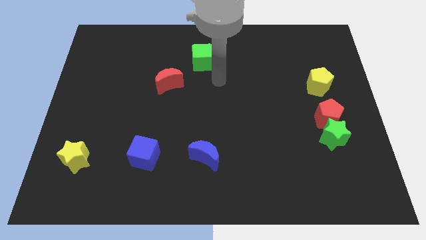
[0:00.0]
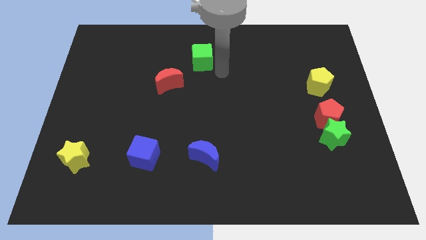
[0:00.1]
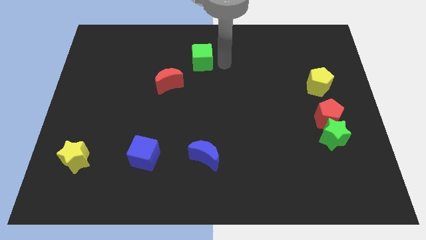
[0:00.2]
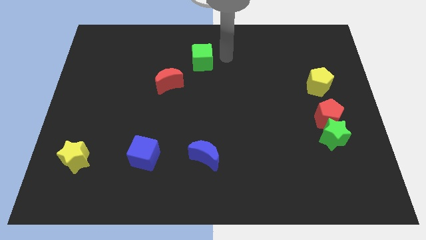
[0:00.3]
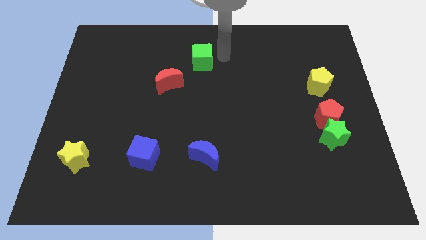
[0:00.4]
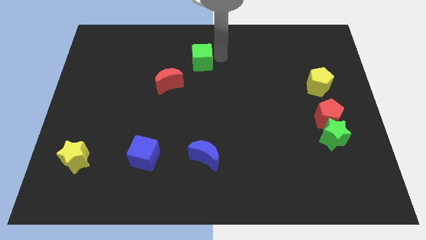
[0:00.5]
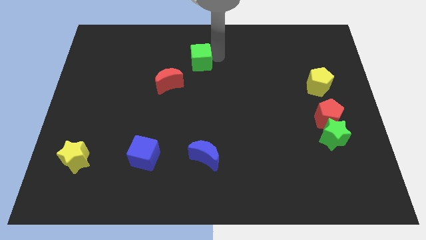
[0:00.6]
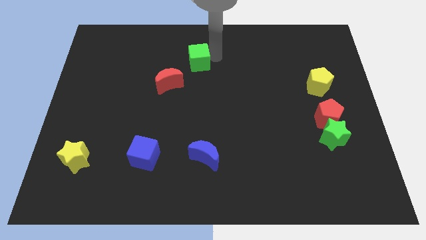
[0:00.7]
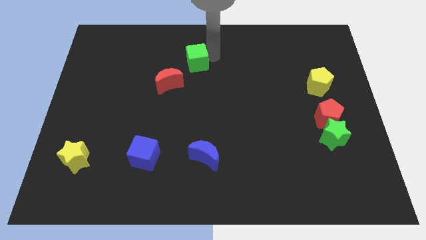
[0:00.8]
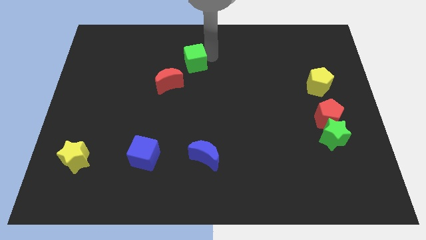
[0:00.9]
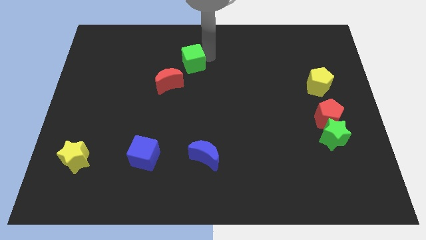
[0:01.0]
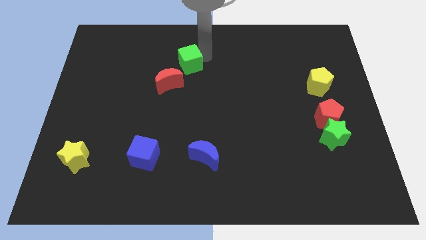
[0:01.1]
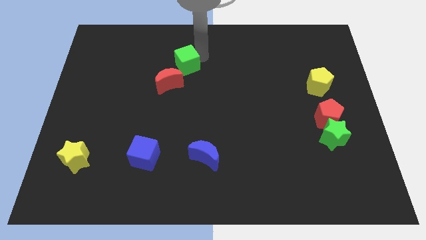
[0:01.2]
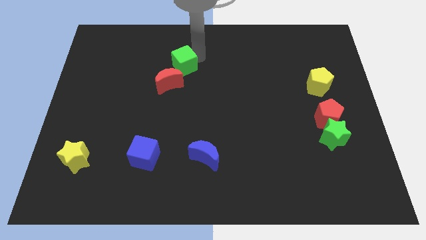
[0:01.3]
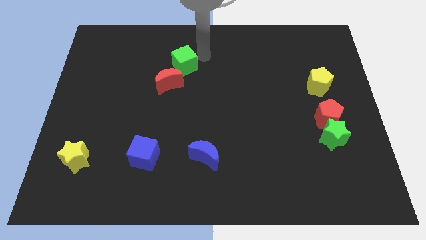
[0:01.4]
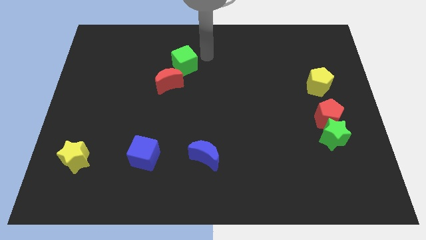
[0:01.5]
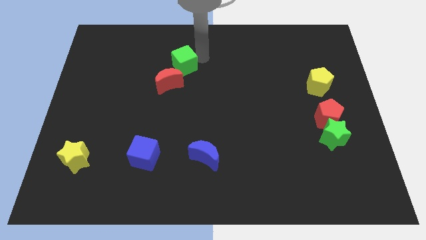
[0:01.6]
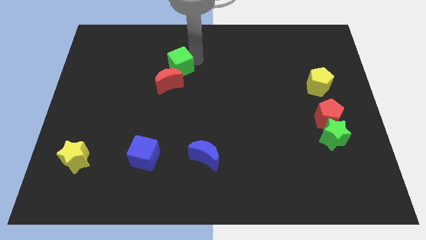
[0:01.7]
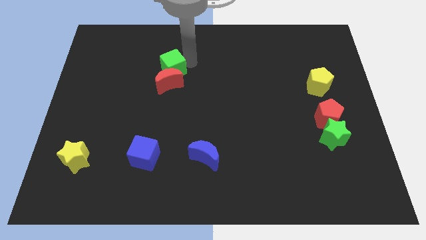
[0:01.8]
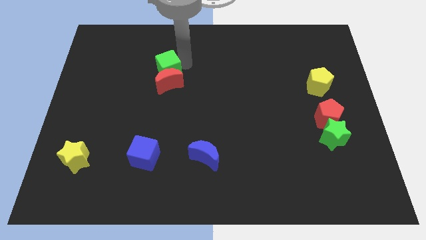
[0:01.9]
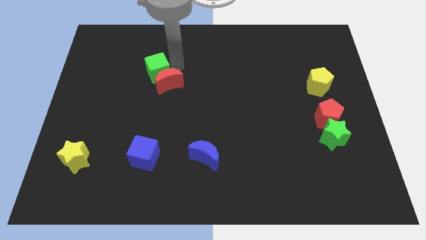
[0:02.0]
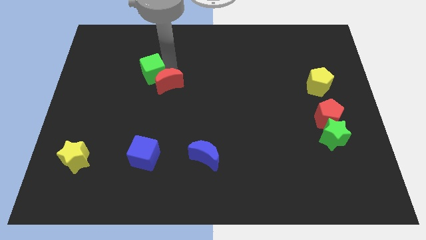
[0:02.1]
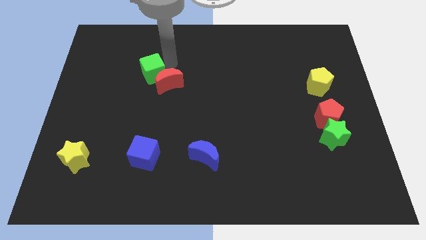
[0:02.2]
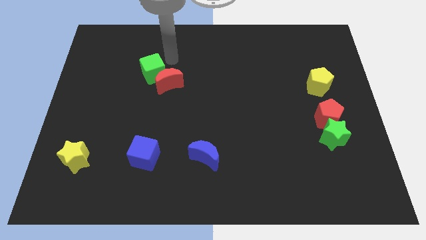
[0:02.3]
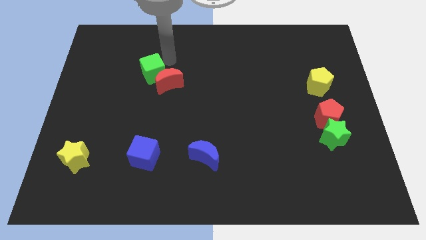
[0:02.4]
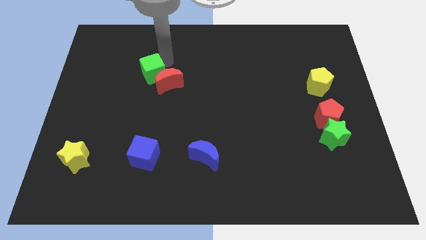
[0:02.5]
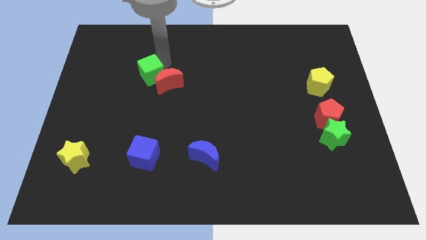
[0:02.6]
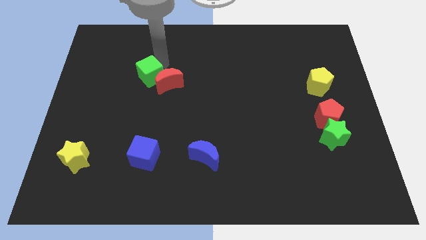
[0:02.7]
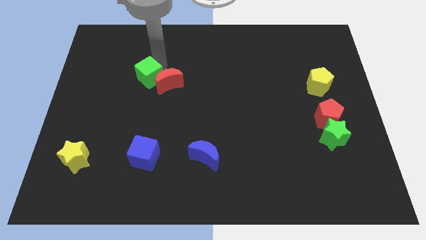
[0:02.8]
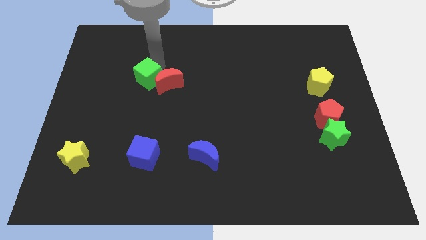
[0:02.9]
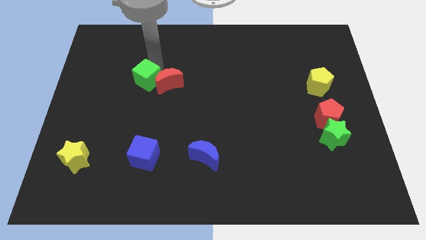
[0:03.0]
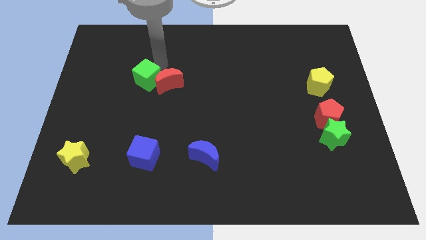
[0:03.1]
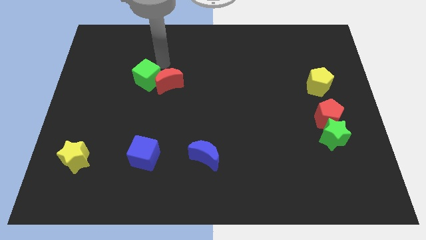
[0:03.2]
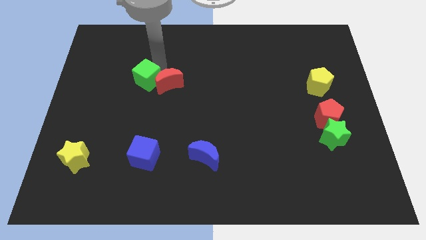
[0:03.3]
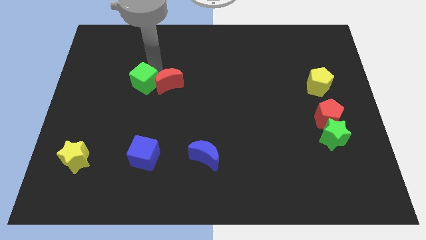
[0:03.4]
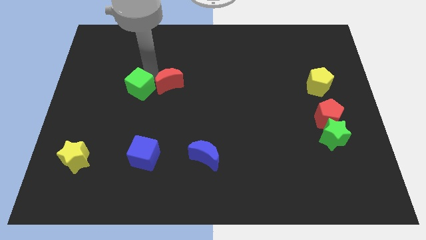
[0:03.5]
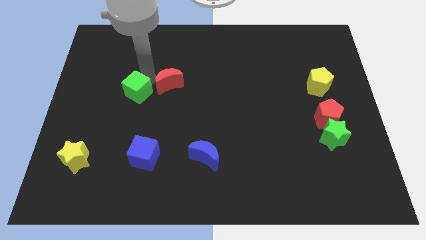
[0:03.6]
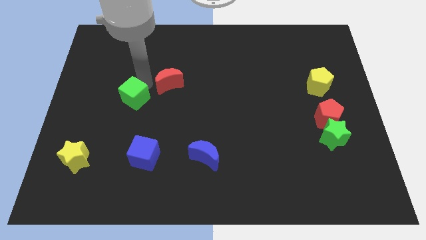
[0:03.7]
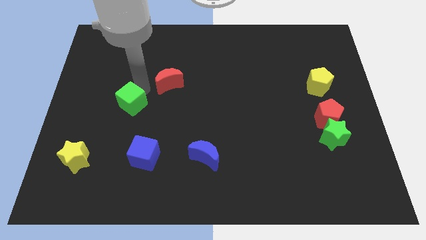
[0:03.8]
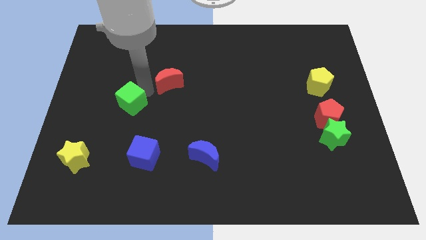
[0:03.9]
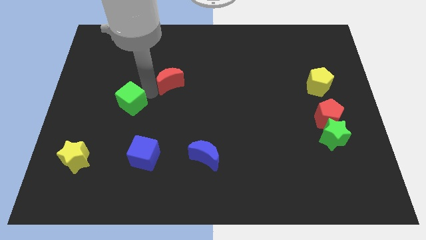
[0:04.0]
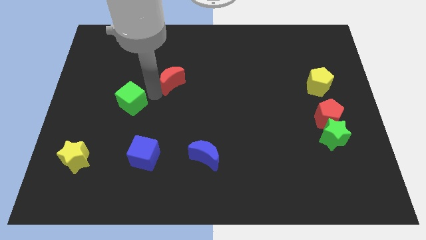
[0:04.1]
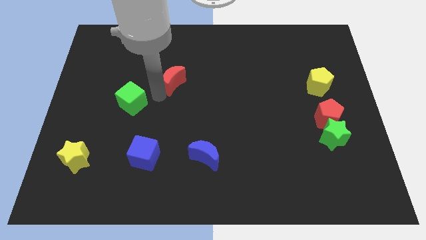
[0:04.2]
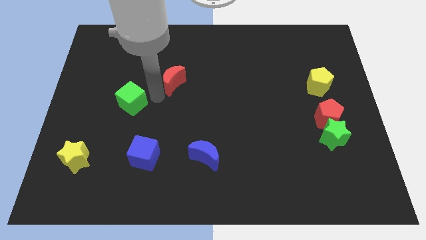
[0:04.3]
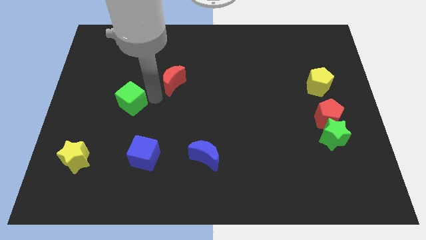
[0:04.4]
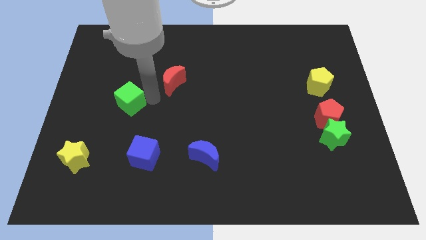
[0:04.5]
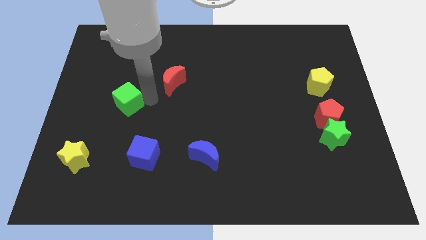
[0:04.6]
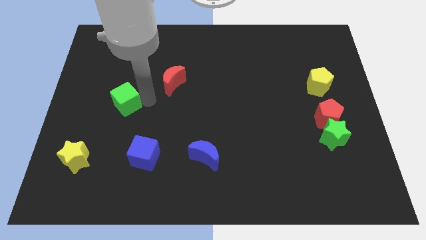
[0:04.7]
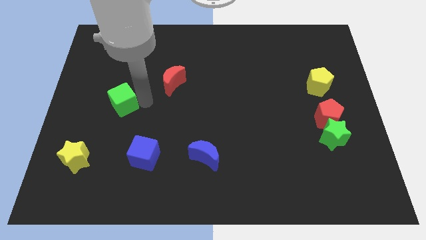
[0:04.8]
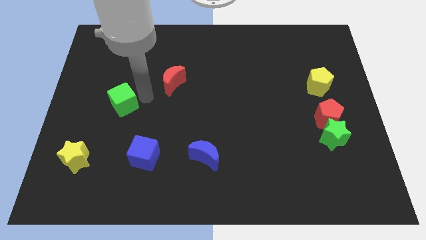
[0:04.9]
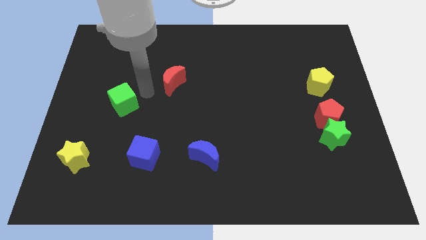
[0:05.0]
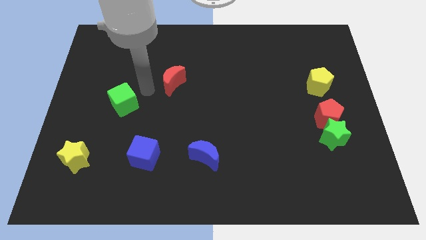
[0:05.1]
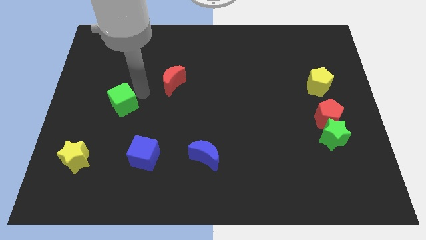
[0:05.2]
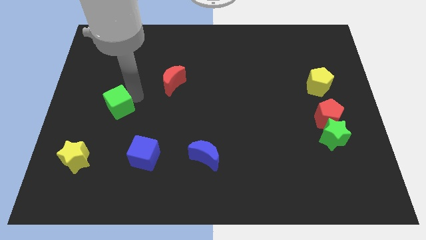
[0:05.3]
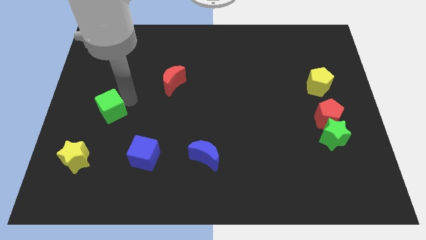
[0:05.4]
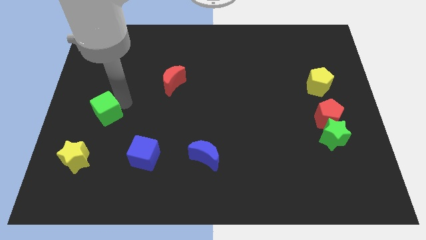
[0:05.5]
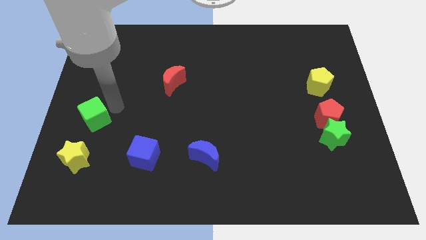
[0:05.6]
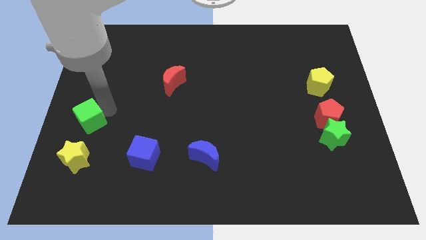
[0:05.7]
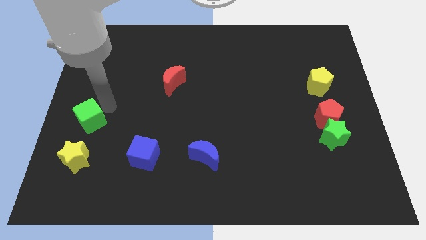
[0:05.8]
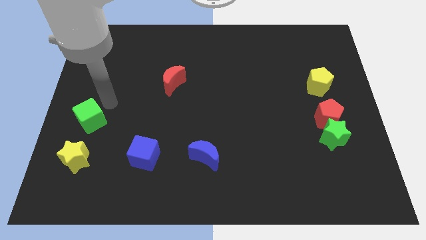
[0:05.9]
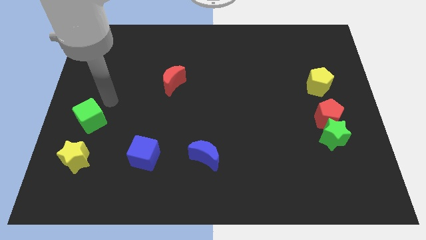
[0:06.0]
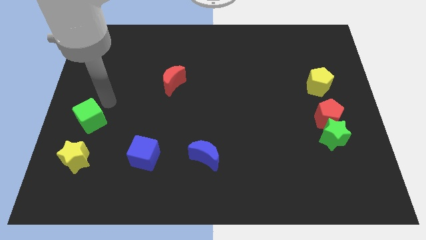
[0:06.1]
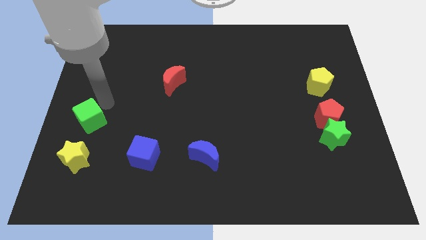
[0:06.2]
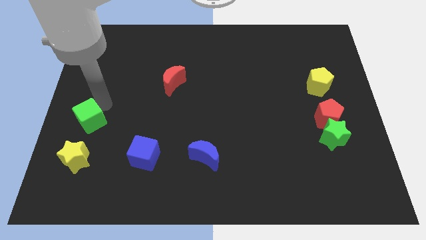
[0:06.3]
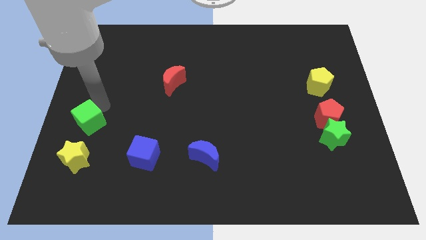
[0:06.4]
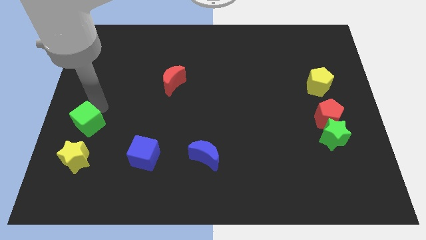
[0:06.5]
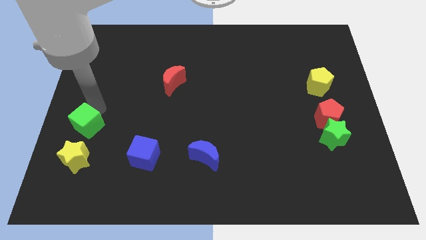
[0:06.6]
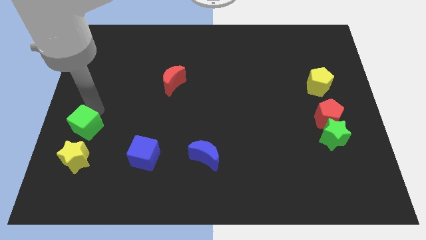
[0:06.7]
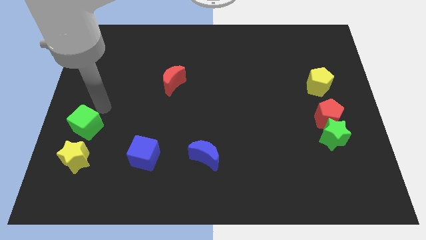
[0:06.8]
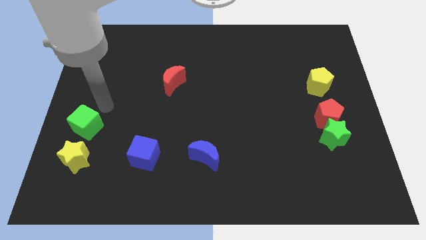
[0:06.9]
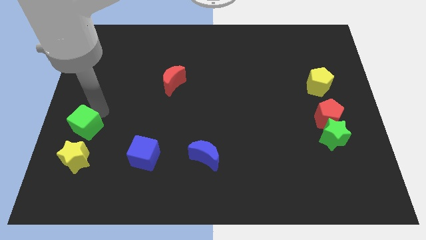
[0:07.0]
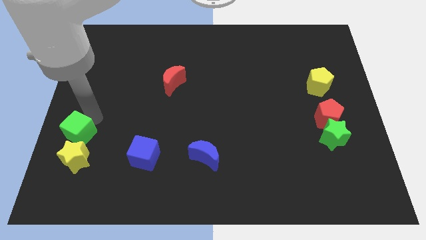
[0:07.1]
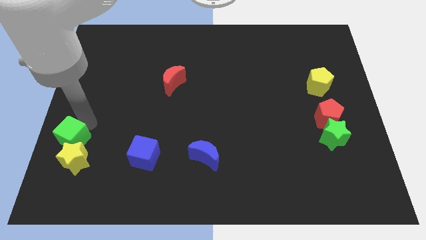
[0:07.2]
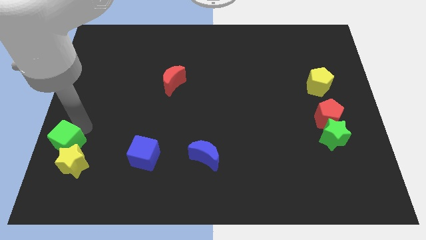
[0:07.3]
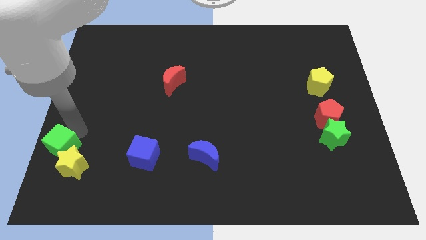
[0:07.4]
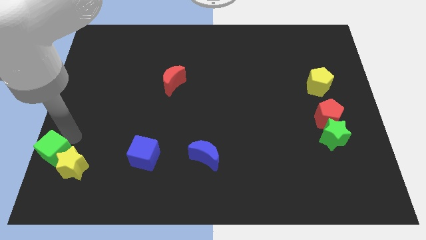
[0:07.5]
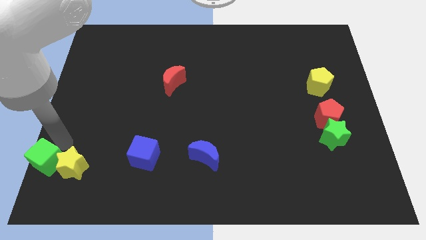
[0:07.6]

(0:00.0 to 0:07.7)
put the green cube to the bottom left
